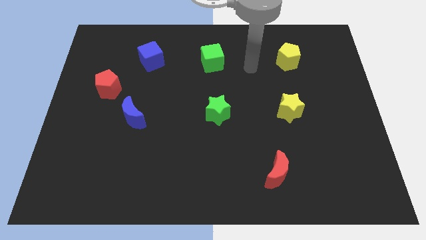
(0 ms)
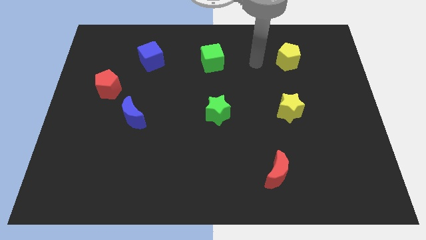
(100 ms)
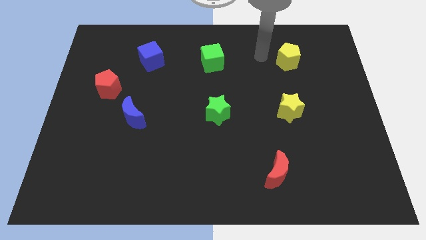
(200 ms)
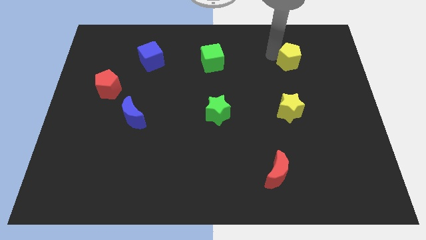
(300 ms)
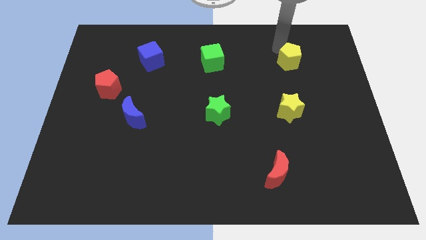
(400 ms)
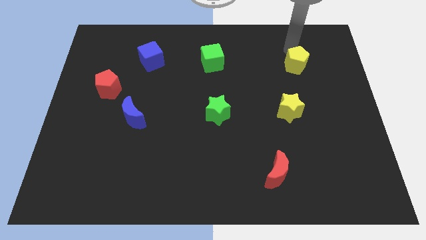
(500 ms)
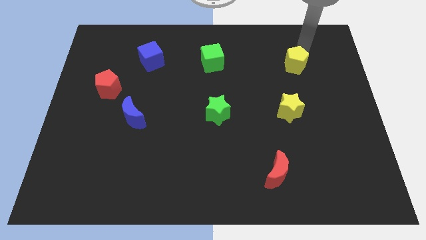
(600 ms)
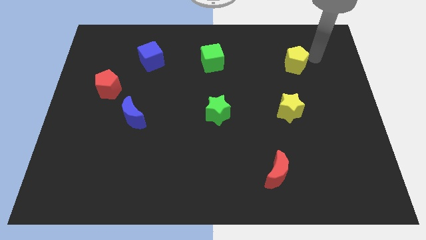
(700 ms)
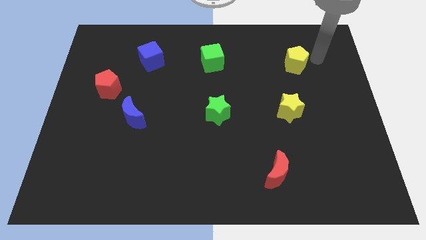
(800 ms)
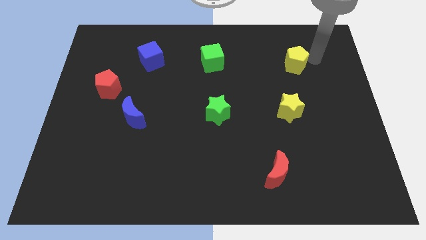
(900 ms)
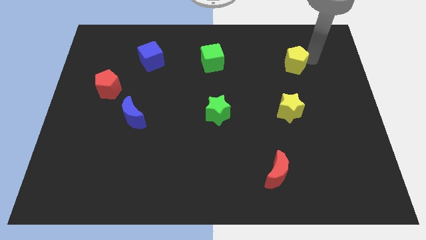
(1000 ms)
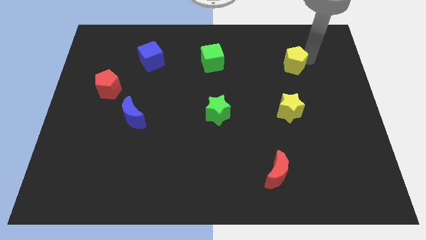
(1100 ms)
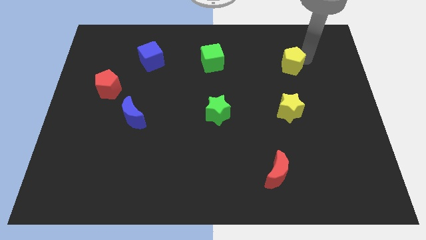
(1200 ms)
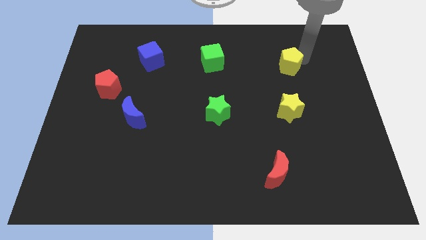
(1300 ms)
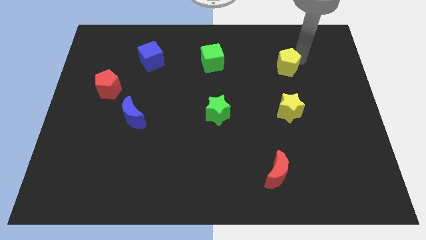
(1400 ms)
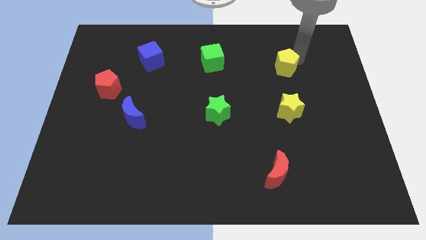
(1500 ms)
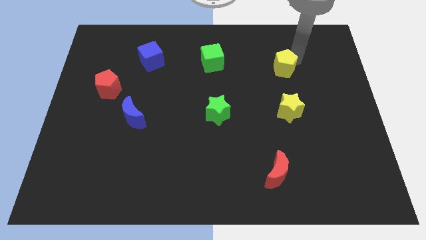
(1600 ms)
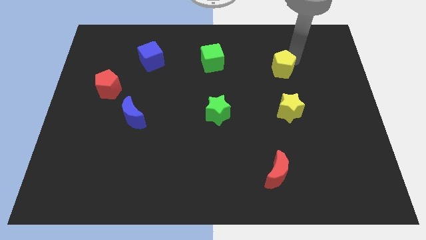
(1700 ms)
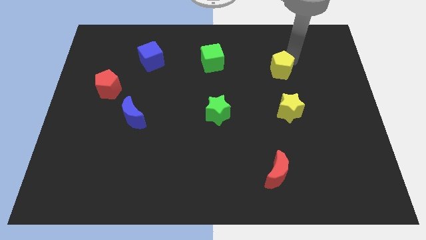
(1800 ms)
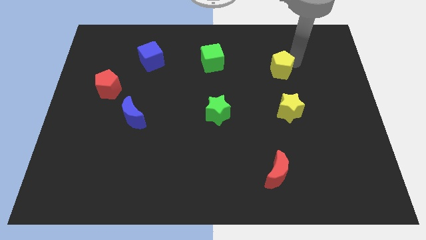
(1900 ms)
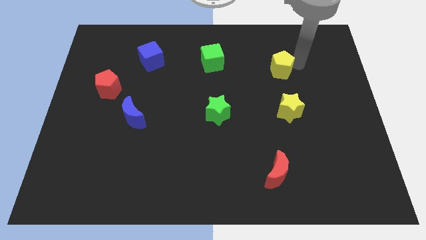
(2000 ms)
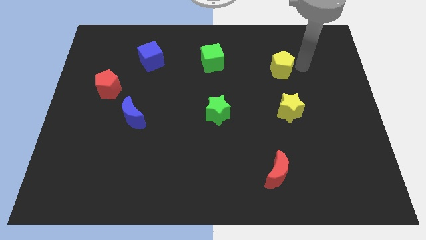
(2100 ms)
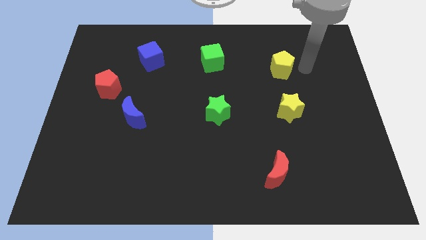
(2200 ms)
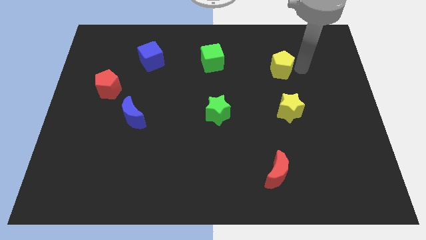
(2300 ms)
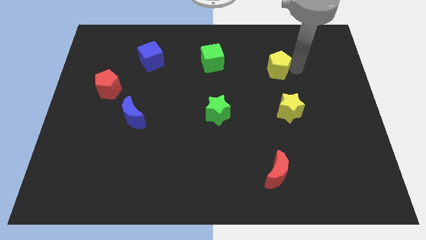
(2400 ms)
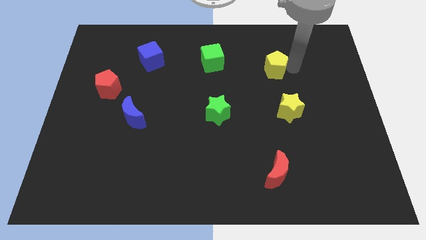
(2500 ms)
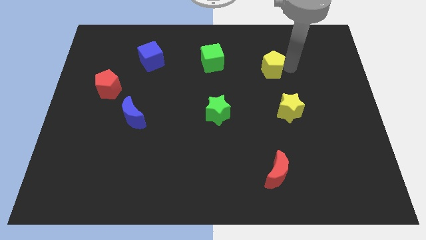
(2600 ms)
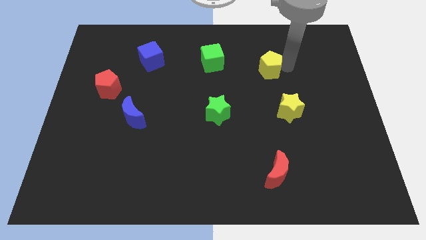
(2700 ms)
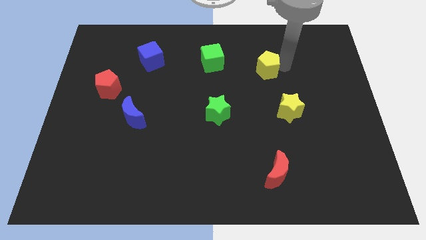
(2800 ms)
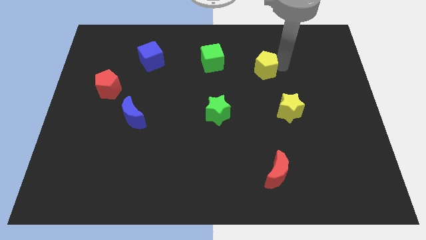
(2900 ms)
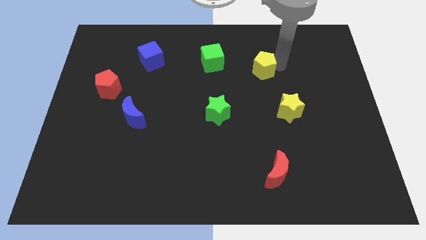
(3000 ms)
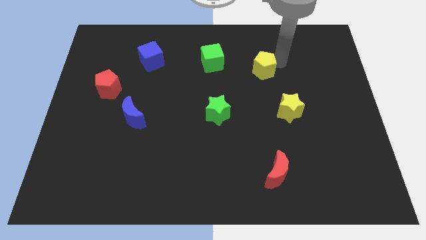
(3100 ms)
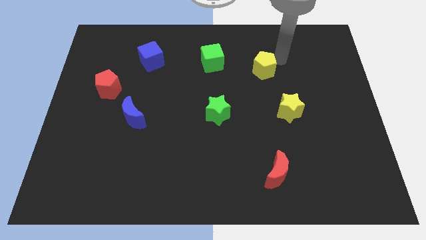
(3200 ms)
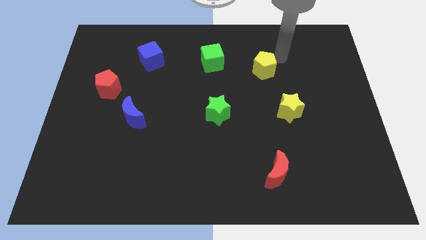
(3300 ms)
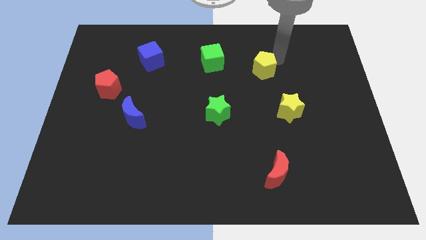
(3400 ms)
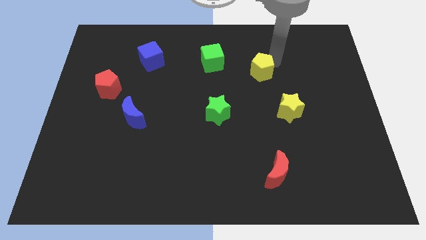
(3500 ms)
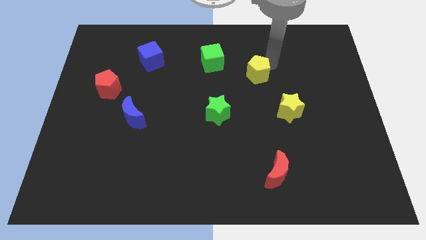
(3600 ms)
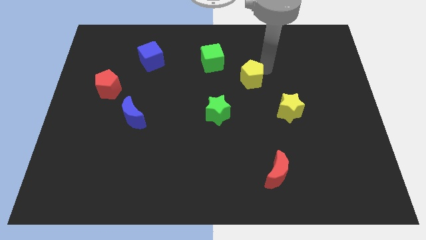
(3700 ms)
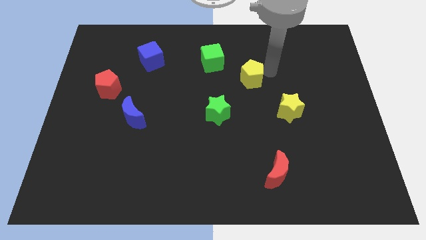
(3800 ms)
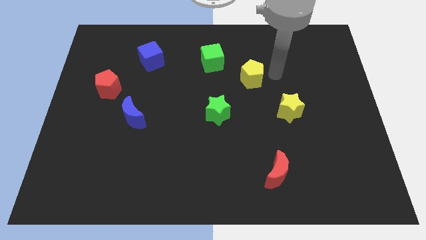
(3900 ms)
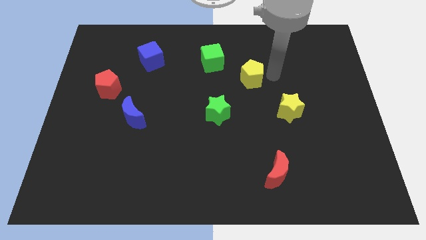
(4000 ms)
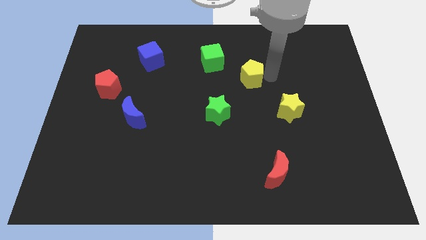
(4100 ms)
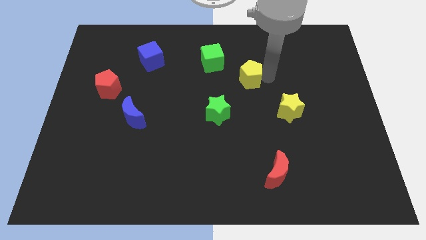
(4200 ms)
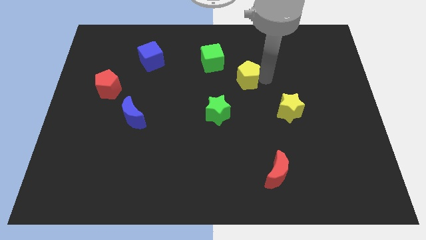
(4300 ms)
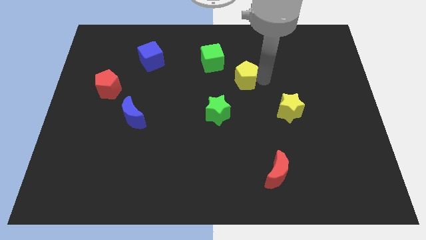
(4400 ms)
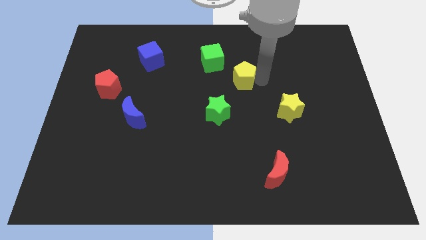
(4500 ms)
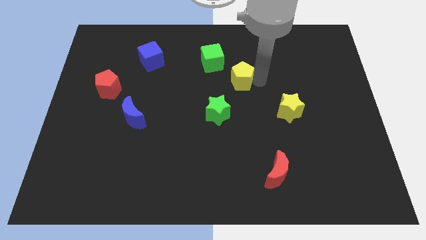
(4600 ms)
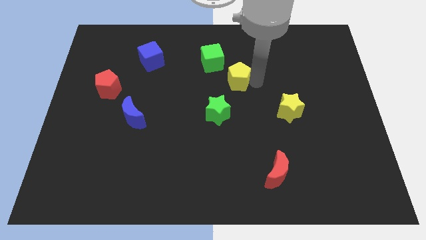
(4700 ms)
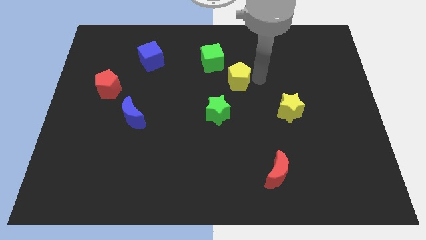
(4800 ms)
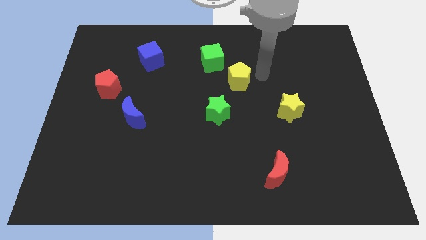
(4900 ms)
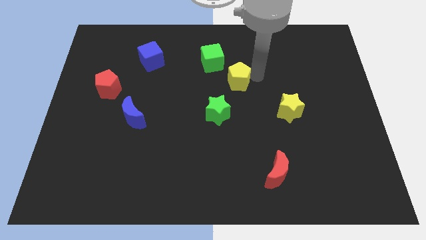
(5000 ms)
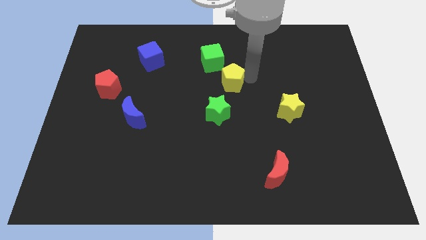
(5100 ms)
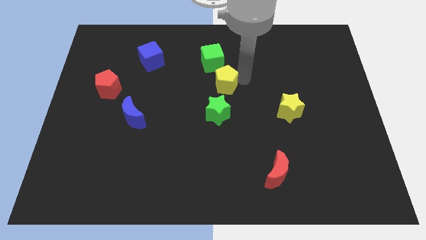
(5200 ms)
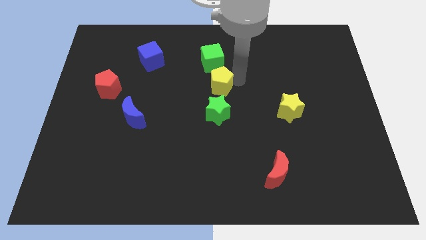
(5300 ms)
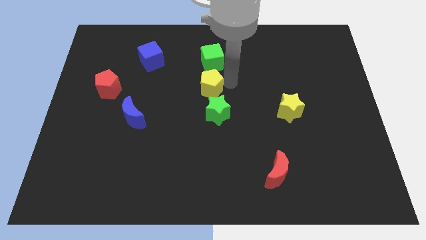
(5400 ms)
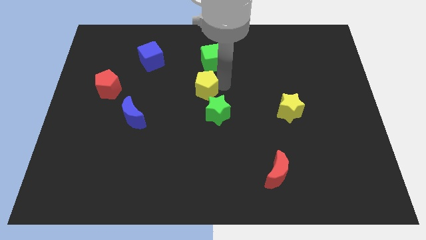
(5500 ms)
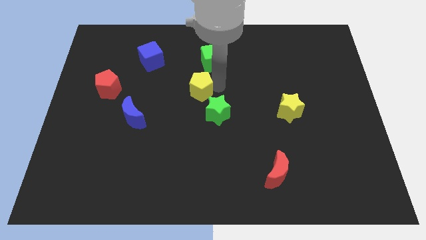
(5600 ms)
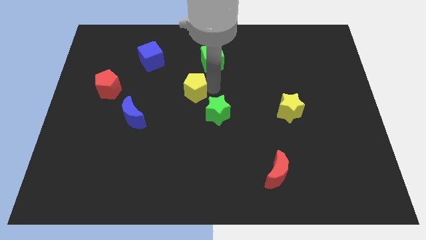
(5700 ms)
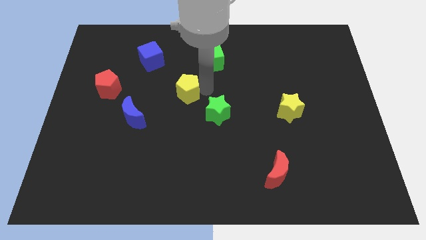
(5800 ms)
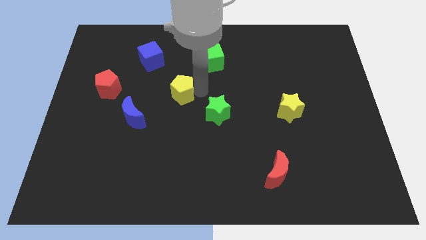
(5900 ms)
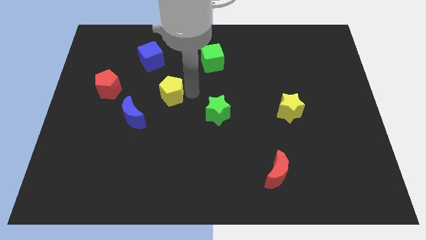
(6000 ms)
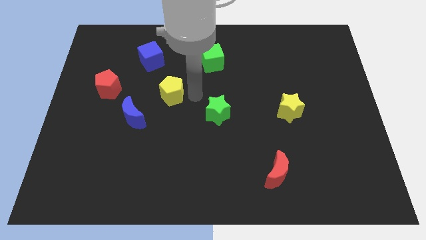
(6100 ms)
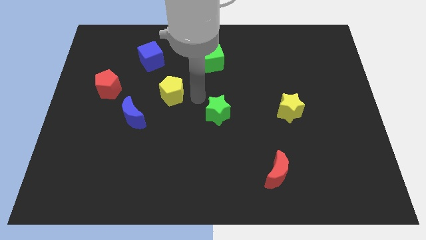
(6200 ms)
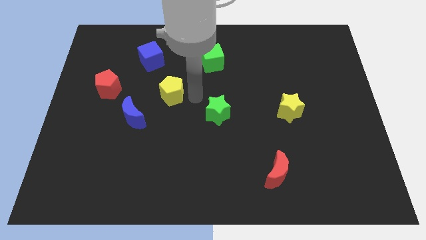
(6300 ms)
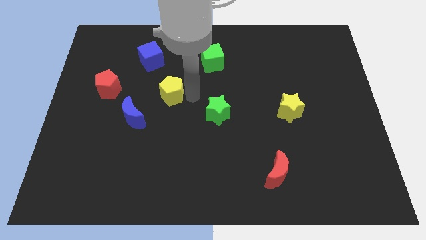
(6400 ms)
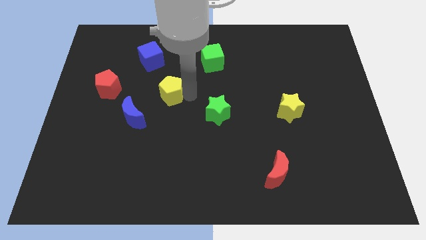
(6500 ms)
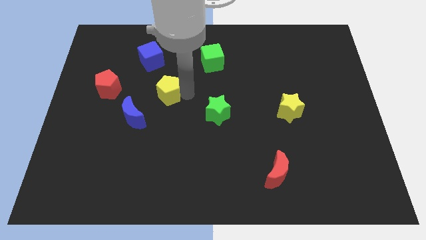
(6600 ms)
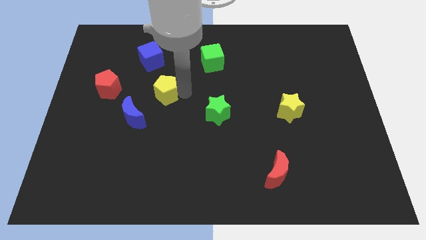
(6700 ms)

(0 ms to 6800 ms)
slide the yellow pentagon to the bottom of the blue cube
